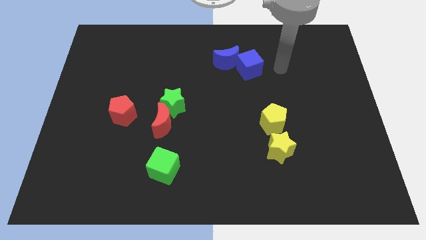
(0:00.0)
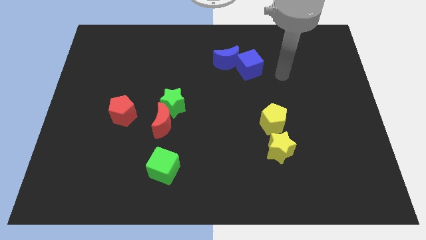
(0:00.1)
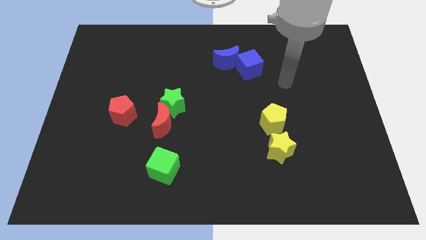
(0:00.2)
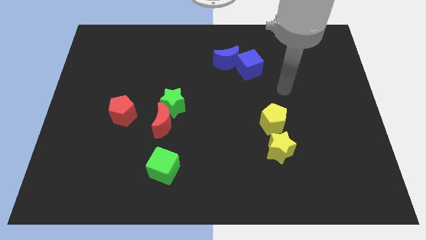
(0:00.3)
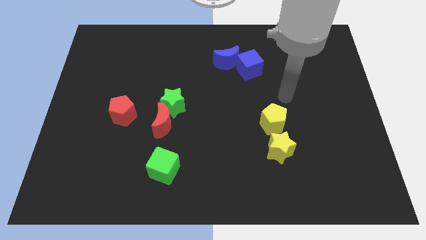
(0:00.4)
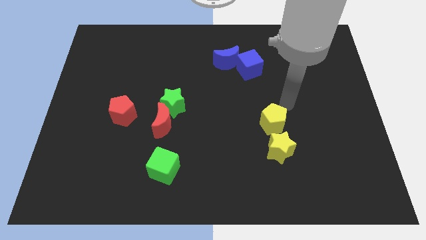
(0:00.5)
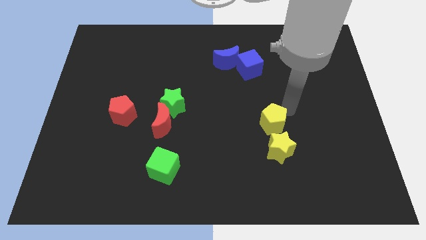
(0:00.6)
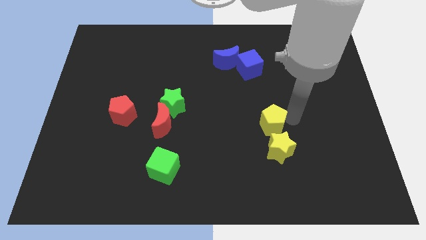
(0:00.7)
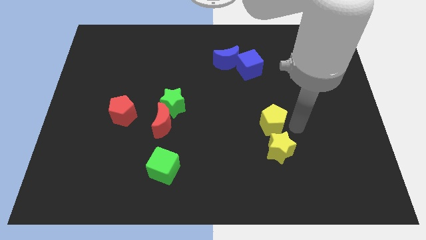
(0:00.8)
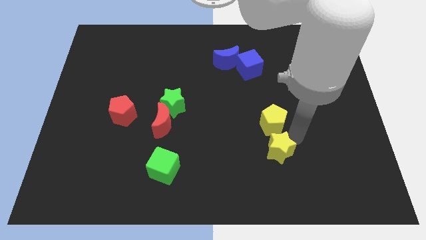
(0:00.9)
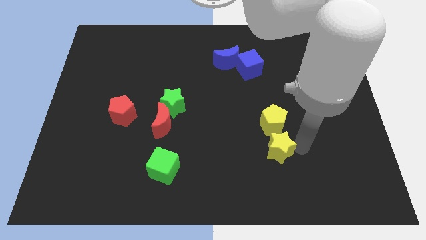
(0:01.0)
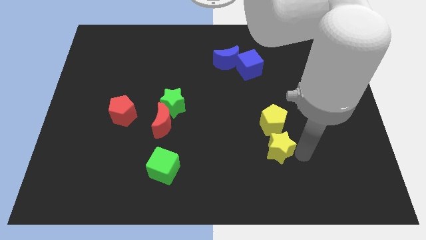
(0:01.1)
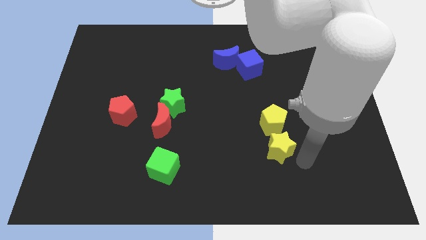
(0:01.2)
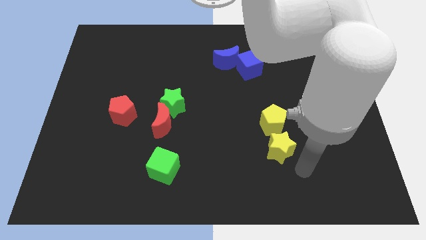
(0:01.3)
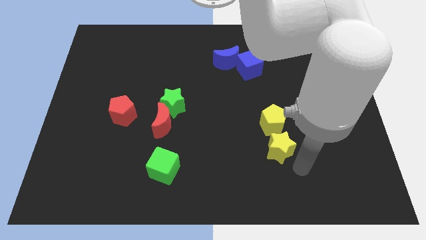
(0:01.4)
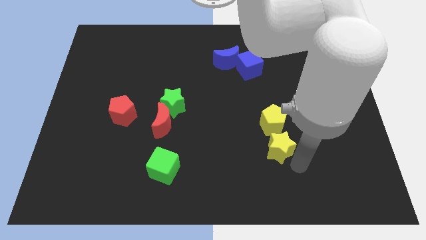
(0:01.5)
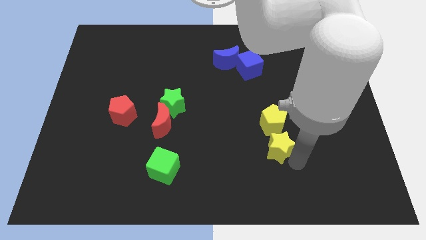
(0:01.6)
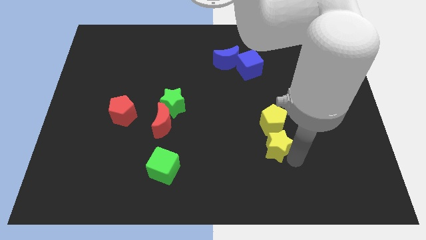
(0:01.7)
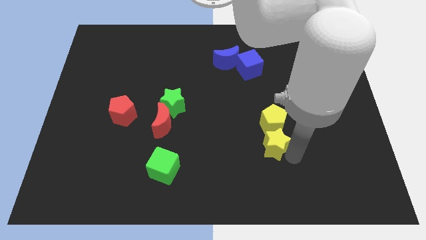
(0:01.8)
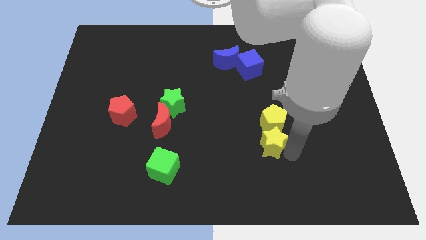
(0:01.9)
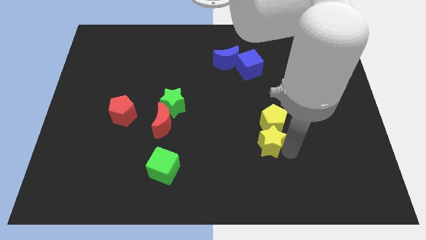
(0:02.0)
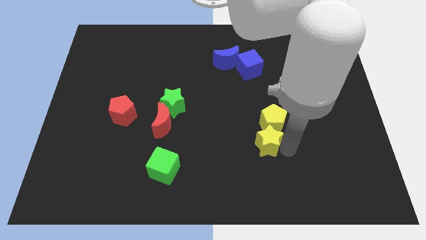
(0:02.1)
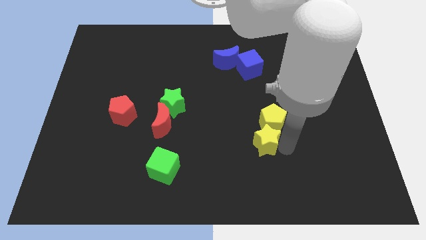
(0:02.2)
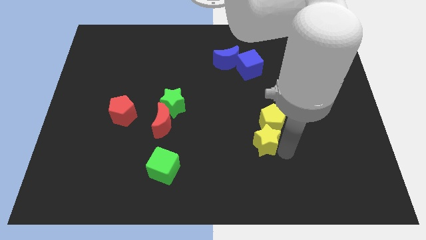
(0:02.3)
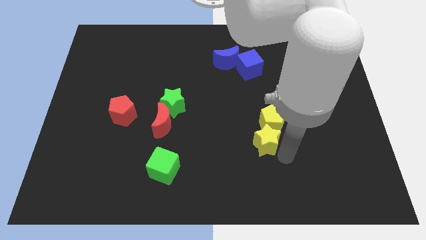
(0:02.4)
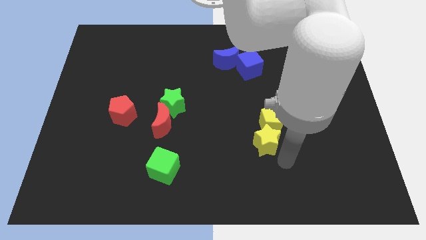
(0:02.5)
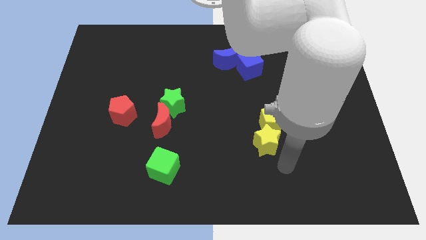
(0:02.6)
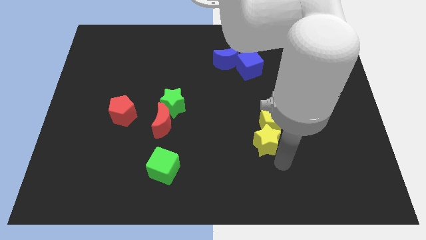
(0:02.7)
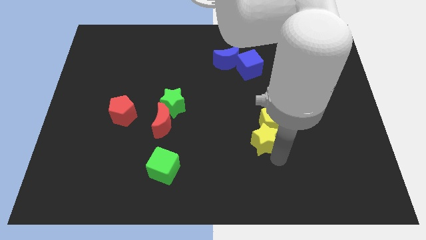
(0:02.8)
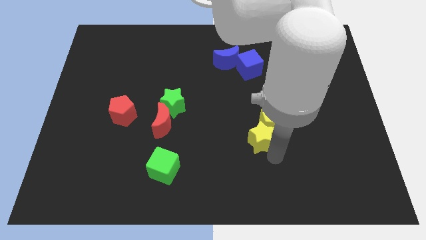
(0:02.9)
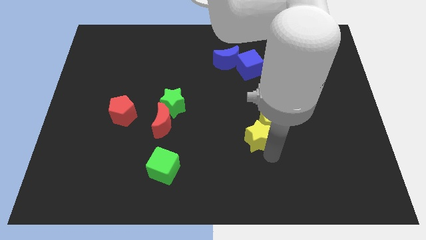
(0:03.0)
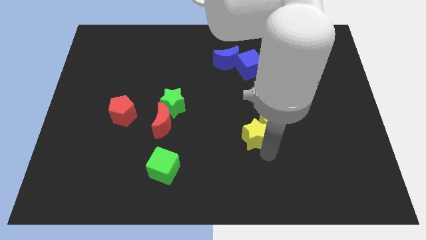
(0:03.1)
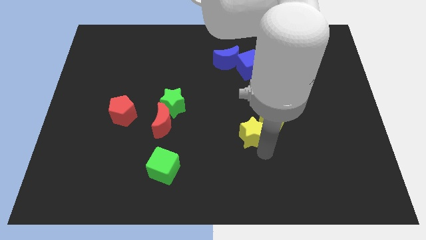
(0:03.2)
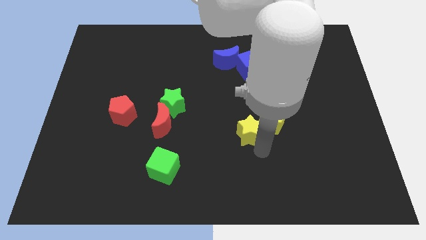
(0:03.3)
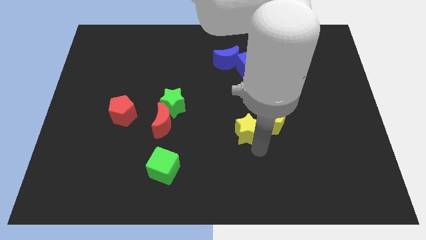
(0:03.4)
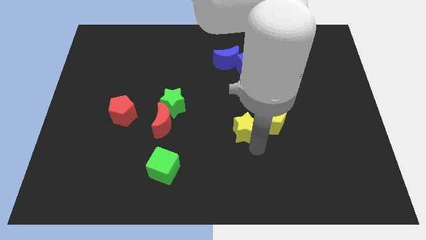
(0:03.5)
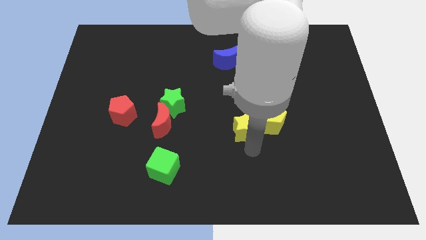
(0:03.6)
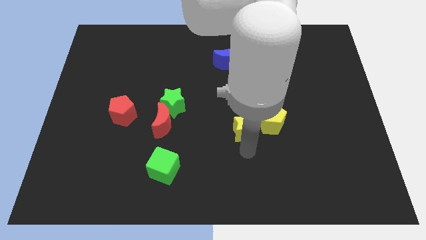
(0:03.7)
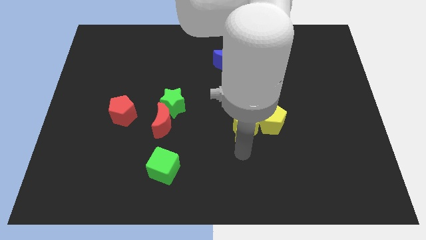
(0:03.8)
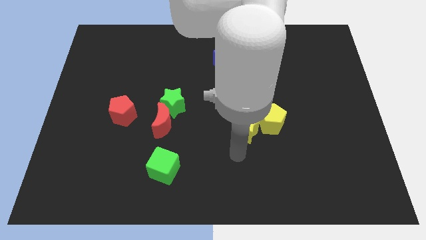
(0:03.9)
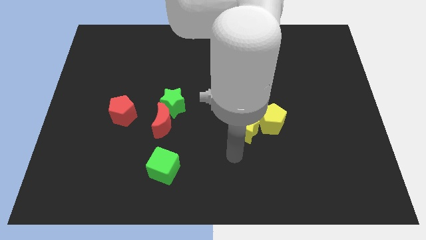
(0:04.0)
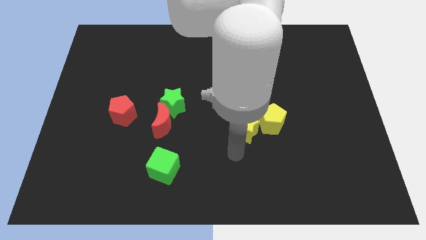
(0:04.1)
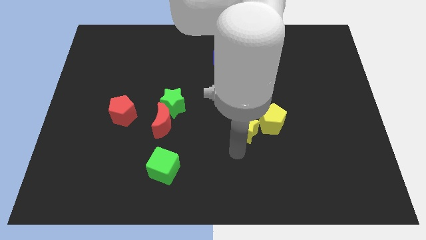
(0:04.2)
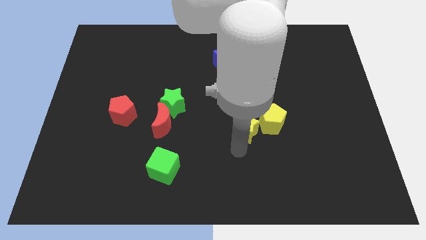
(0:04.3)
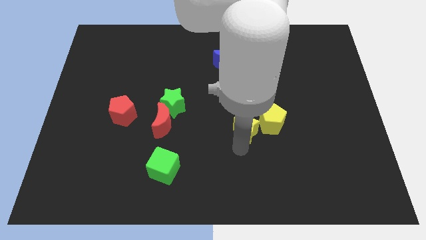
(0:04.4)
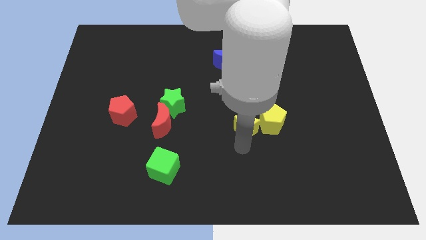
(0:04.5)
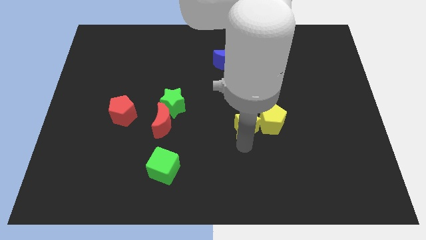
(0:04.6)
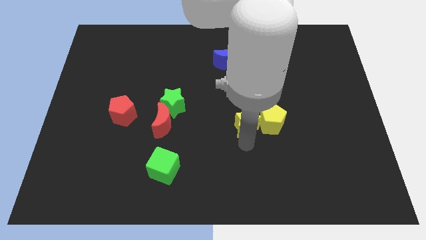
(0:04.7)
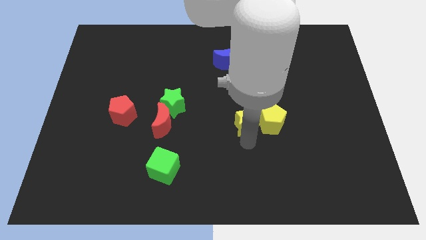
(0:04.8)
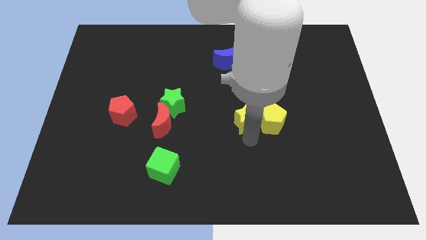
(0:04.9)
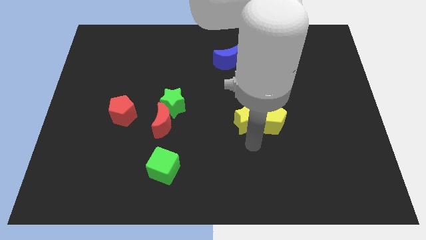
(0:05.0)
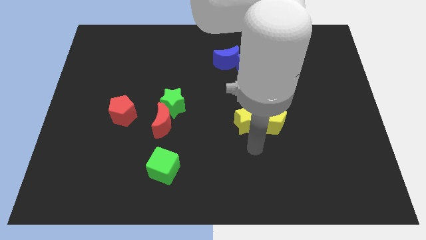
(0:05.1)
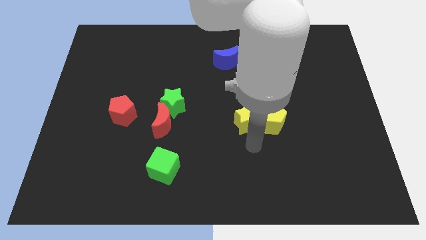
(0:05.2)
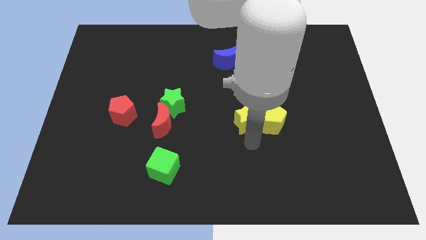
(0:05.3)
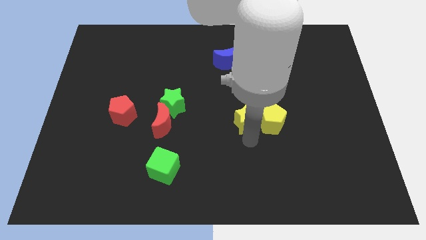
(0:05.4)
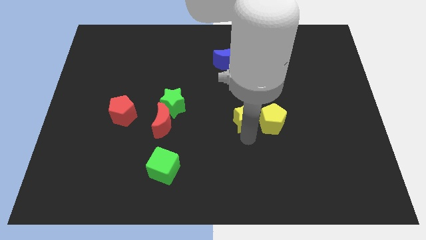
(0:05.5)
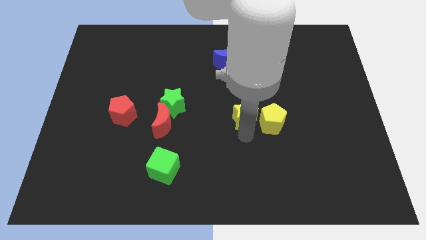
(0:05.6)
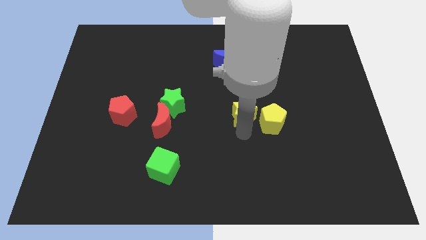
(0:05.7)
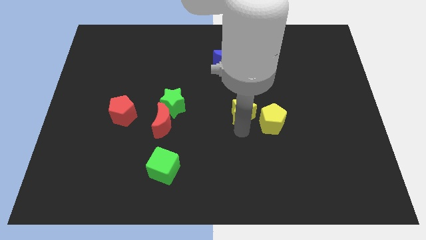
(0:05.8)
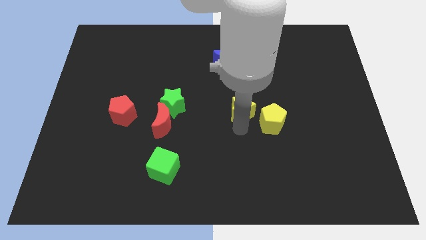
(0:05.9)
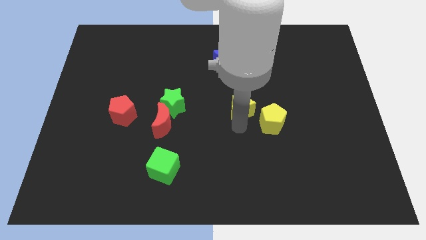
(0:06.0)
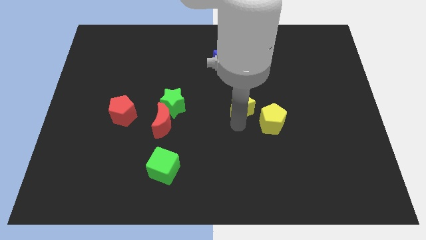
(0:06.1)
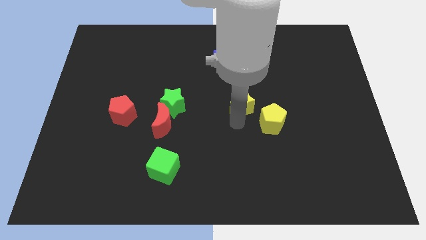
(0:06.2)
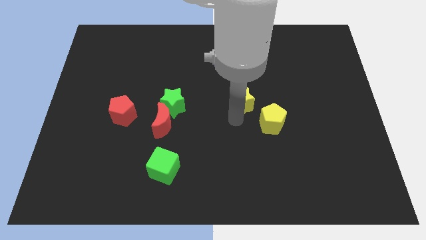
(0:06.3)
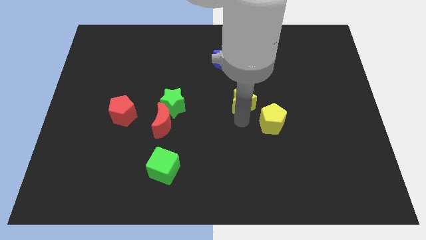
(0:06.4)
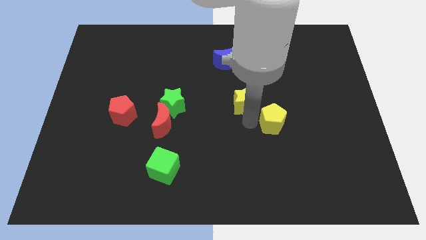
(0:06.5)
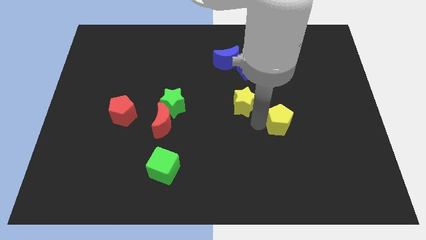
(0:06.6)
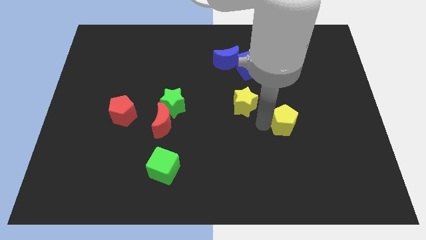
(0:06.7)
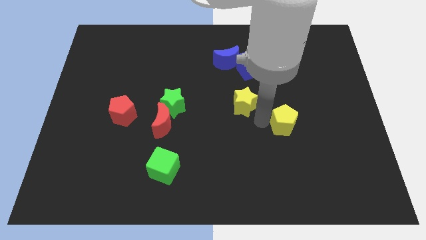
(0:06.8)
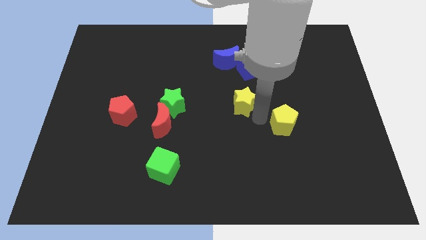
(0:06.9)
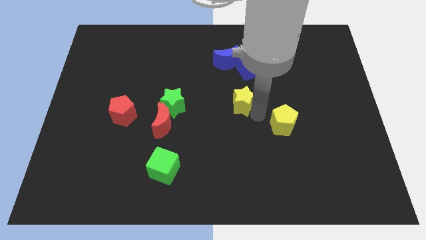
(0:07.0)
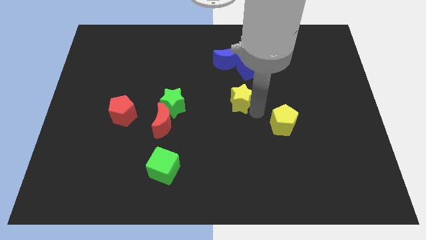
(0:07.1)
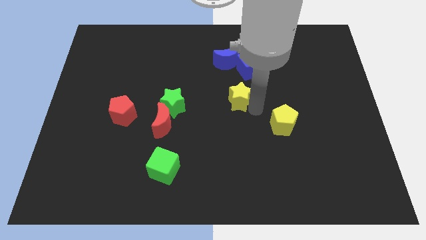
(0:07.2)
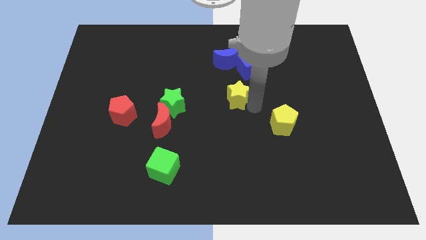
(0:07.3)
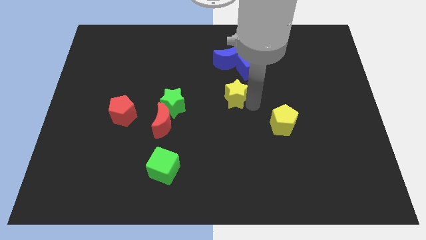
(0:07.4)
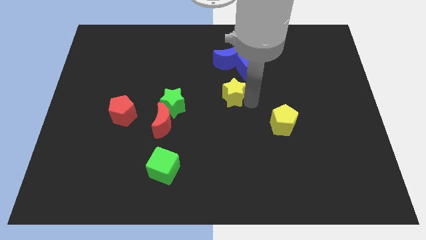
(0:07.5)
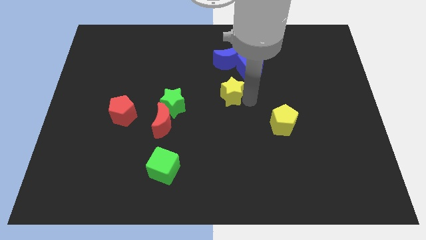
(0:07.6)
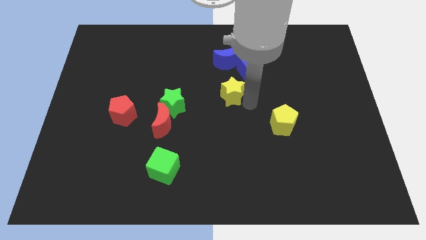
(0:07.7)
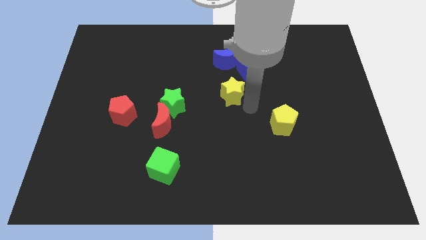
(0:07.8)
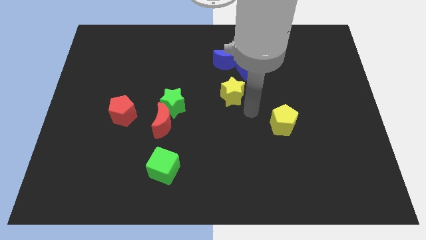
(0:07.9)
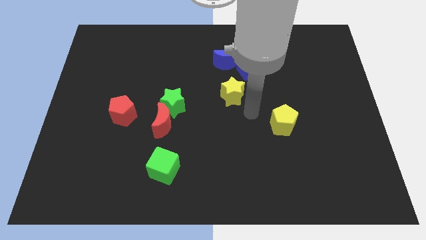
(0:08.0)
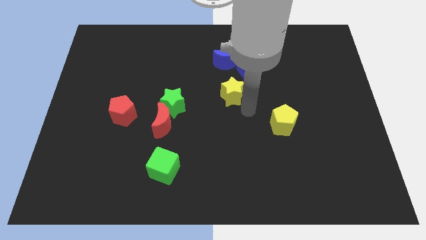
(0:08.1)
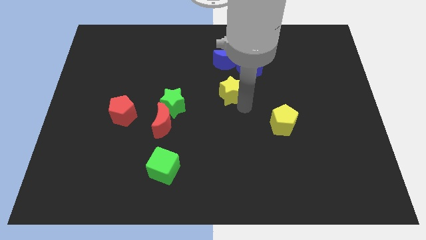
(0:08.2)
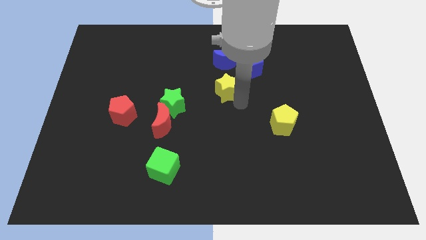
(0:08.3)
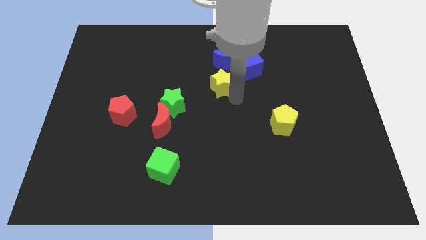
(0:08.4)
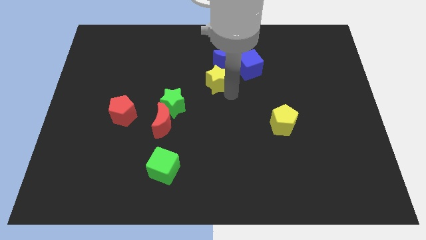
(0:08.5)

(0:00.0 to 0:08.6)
put the yellow star to the bottom left of the blue moon
